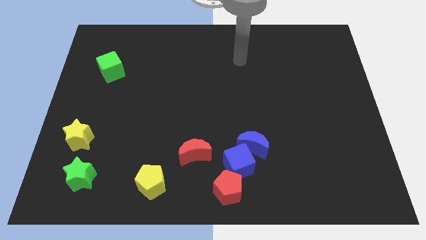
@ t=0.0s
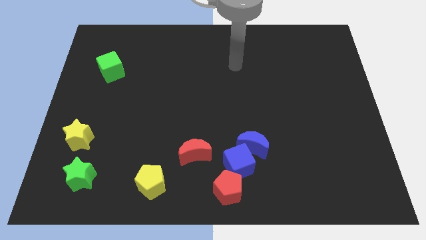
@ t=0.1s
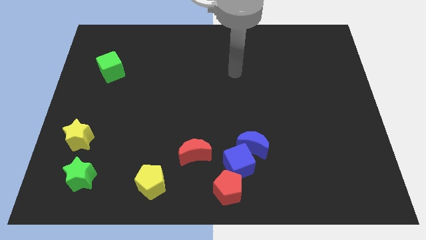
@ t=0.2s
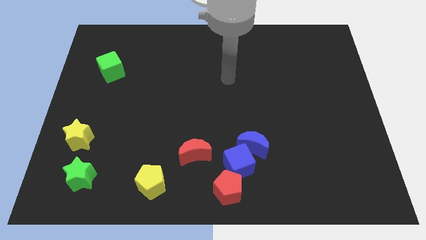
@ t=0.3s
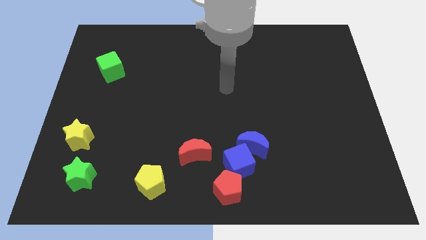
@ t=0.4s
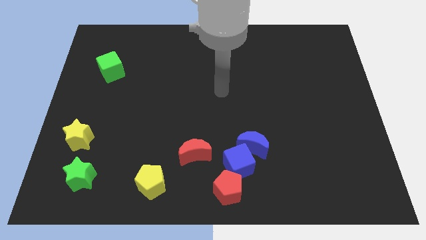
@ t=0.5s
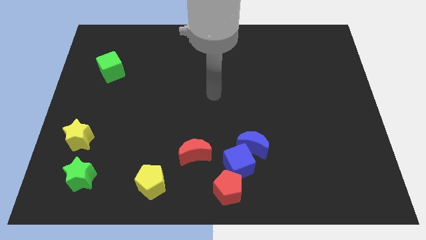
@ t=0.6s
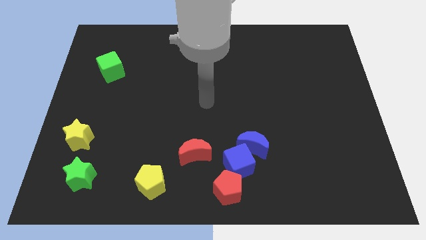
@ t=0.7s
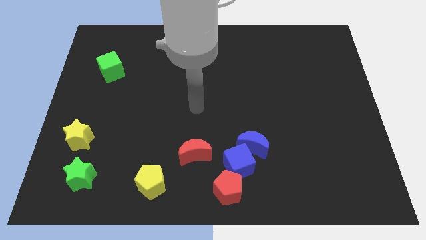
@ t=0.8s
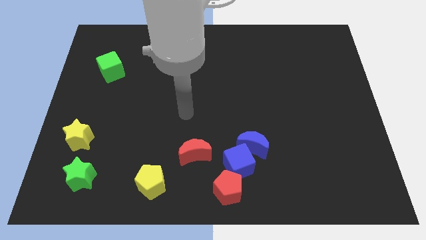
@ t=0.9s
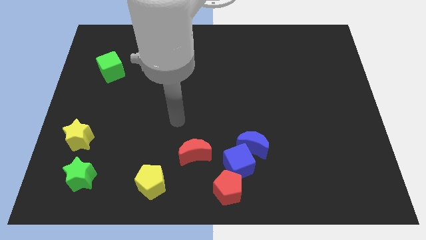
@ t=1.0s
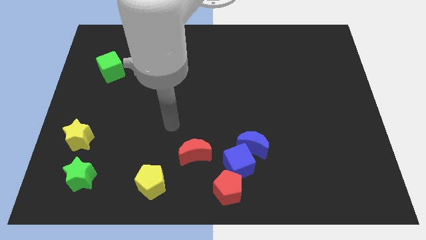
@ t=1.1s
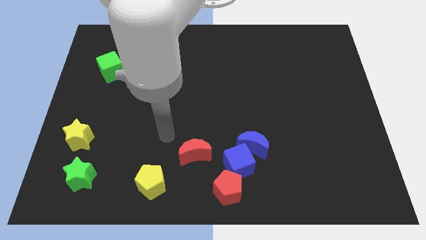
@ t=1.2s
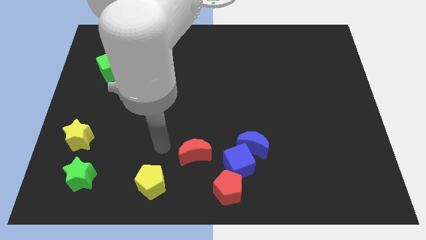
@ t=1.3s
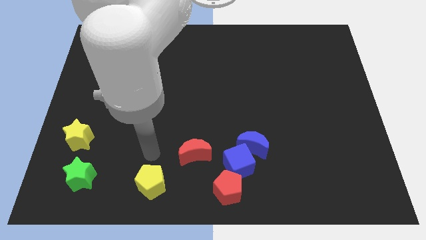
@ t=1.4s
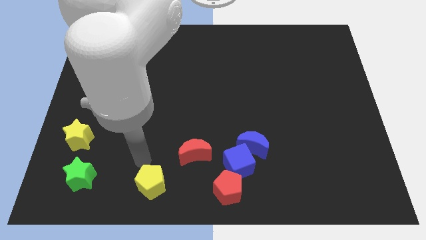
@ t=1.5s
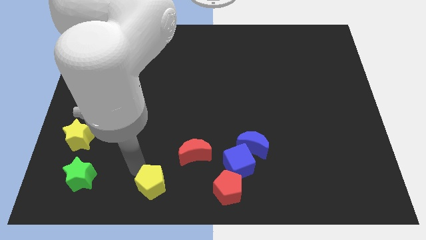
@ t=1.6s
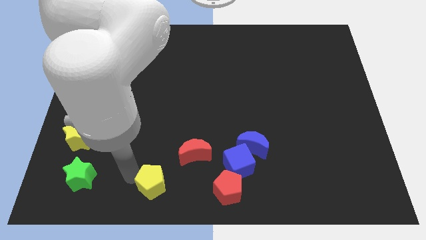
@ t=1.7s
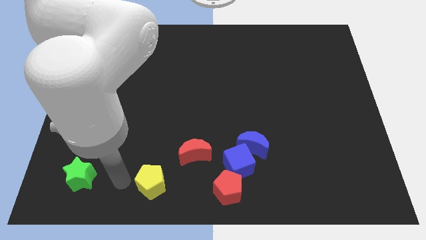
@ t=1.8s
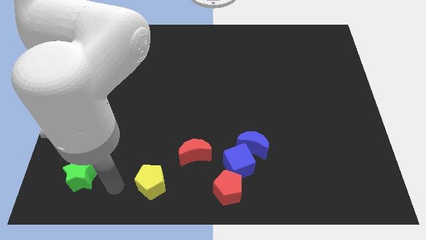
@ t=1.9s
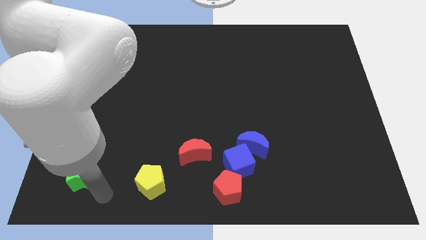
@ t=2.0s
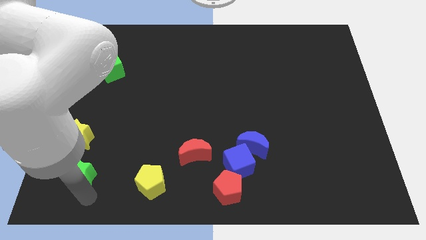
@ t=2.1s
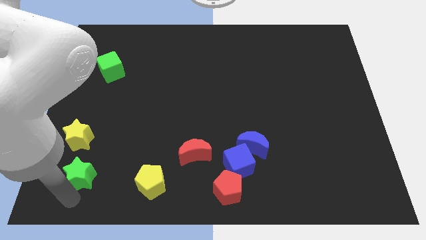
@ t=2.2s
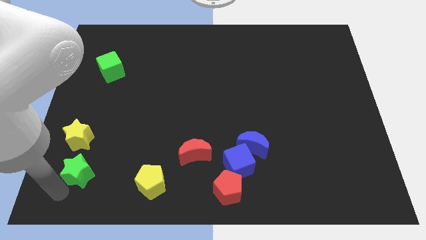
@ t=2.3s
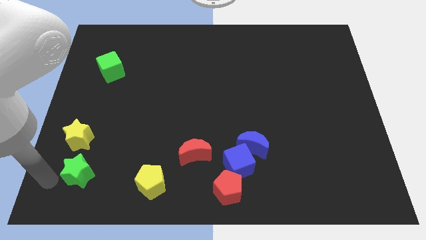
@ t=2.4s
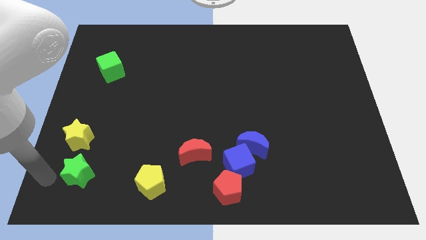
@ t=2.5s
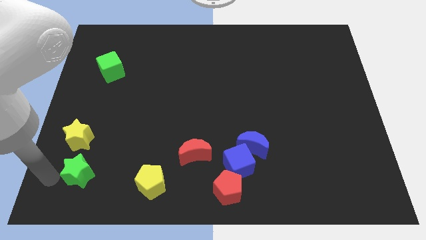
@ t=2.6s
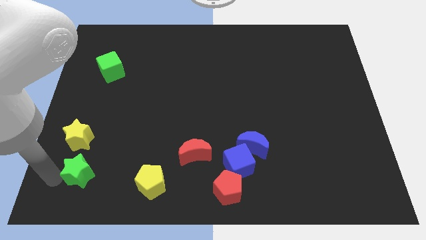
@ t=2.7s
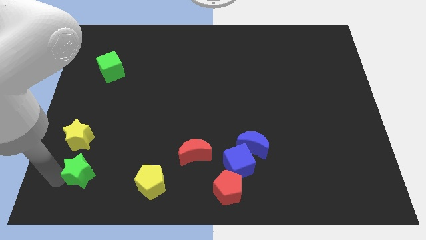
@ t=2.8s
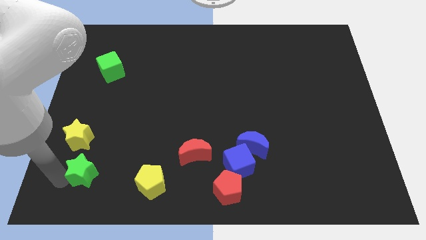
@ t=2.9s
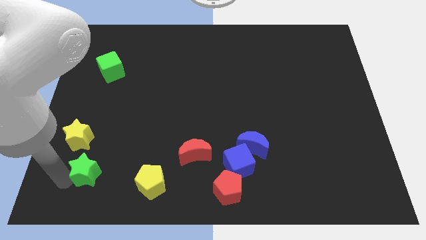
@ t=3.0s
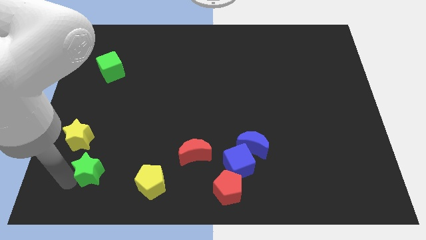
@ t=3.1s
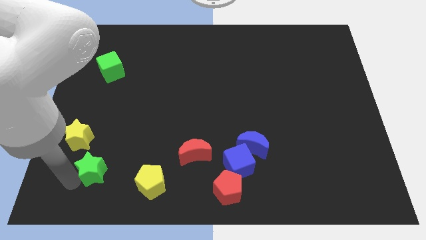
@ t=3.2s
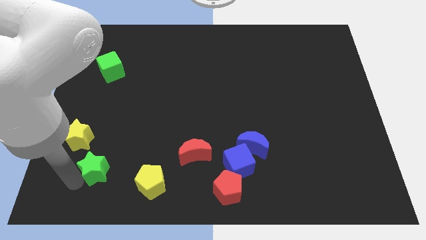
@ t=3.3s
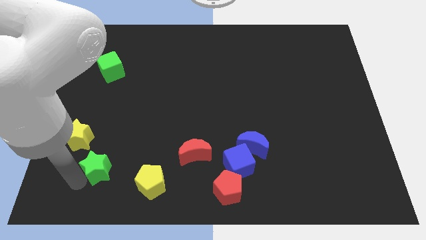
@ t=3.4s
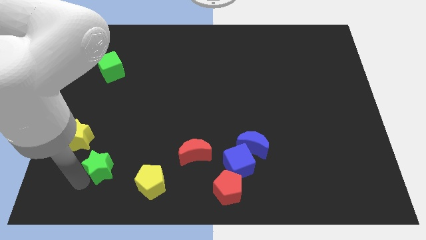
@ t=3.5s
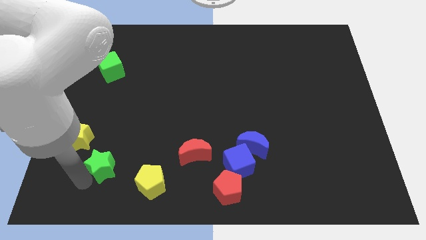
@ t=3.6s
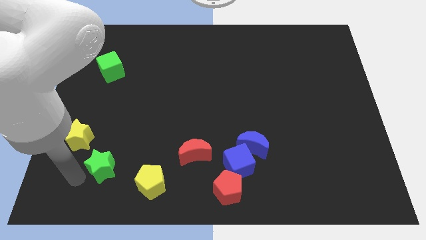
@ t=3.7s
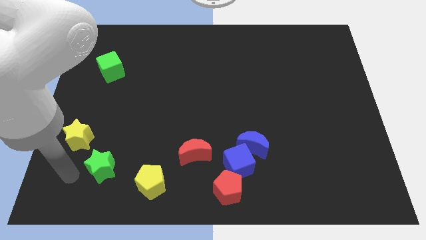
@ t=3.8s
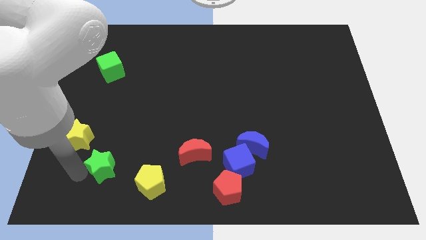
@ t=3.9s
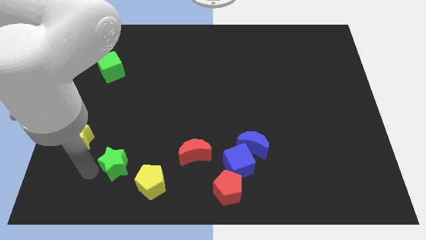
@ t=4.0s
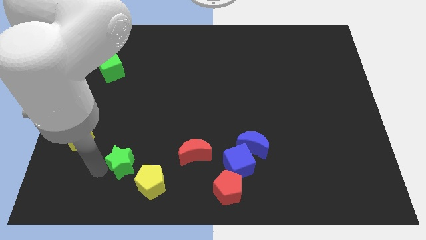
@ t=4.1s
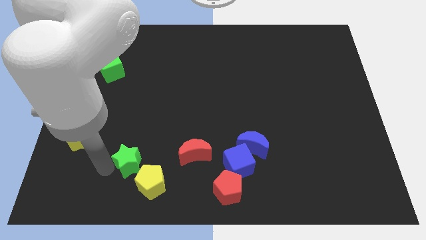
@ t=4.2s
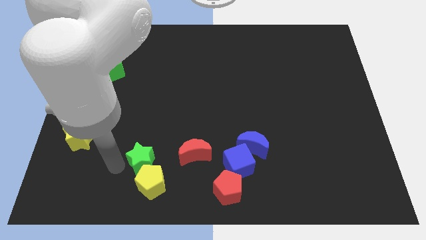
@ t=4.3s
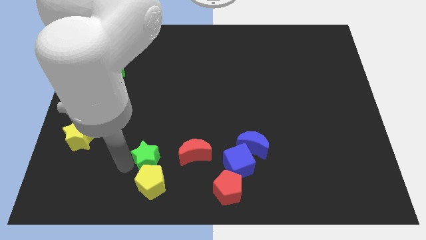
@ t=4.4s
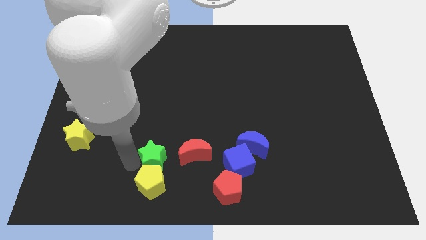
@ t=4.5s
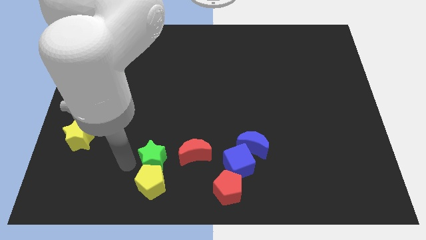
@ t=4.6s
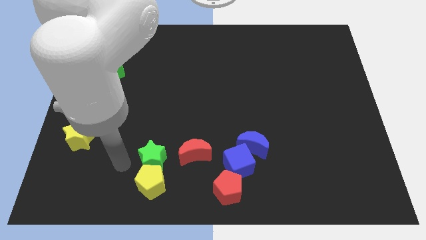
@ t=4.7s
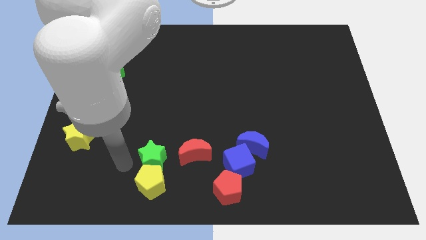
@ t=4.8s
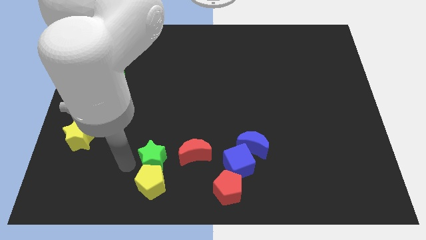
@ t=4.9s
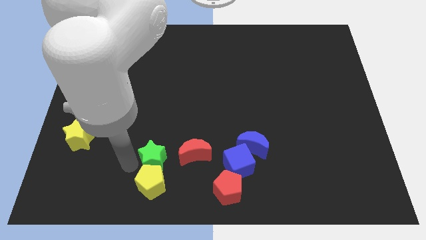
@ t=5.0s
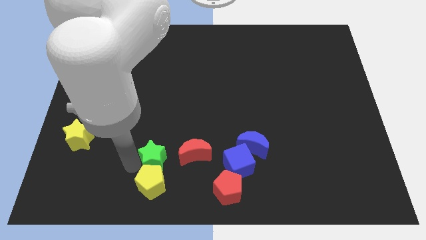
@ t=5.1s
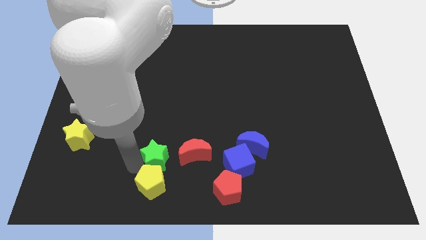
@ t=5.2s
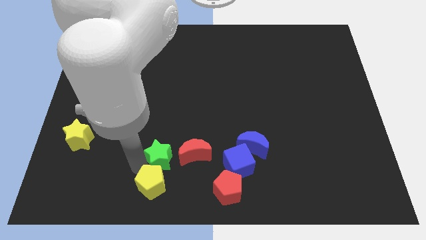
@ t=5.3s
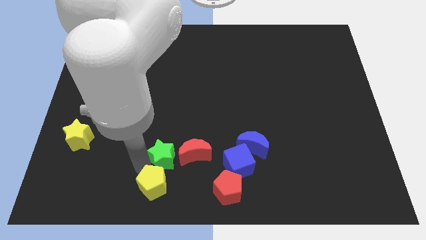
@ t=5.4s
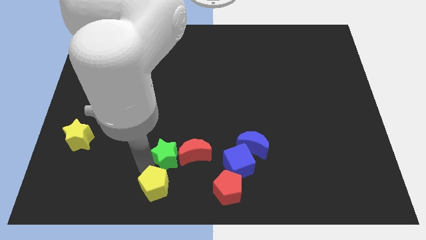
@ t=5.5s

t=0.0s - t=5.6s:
move the green star close to the red moon

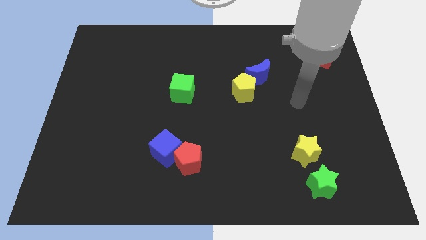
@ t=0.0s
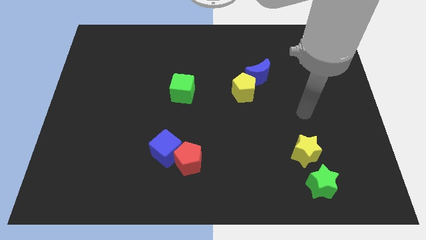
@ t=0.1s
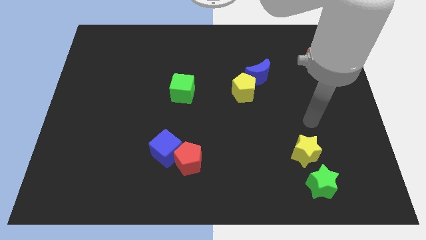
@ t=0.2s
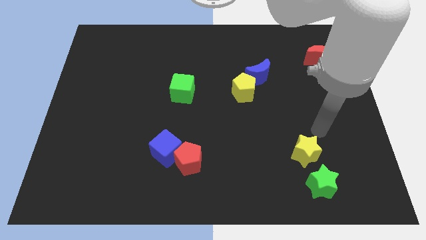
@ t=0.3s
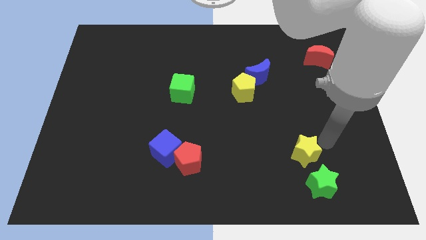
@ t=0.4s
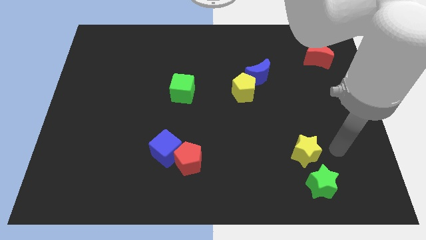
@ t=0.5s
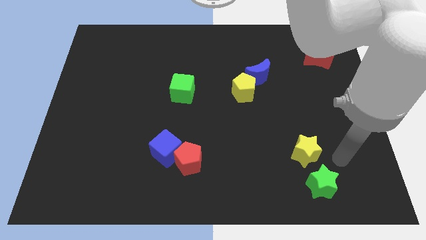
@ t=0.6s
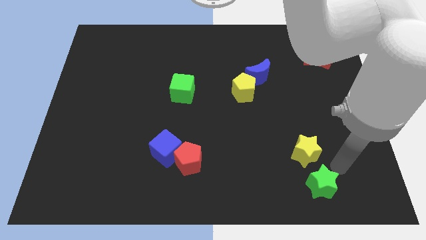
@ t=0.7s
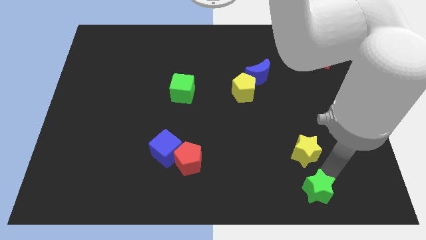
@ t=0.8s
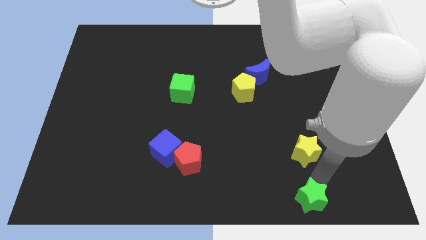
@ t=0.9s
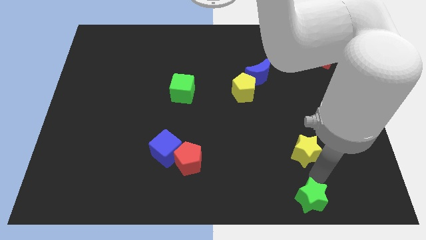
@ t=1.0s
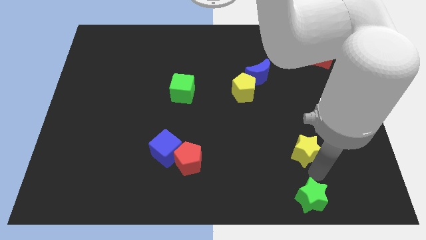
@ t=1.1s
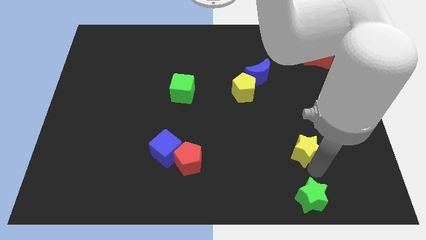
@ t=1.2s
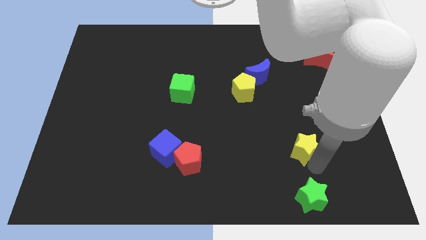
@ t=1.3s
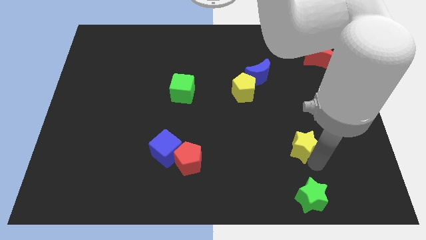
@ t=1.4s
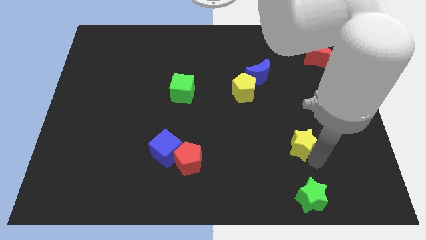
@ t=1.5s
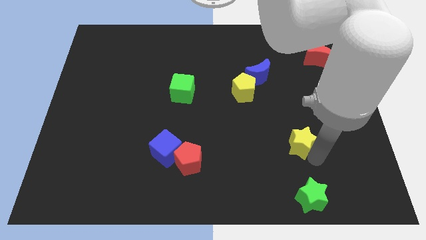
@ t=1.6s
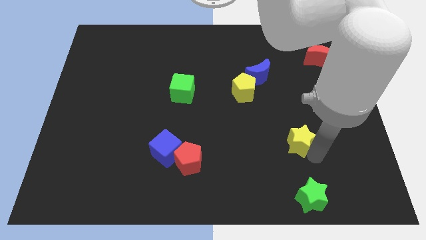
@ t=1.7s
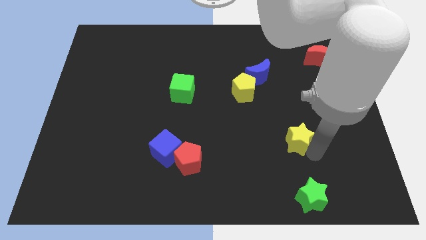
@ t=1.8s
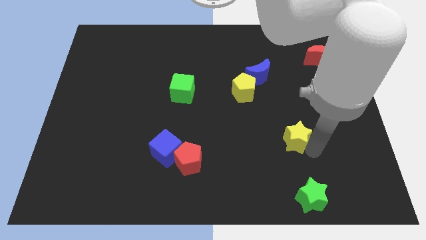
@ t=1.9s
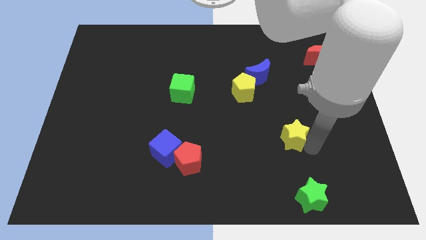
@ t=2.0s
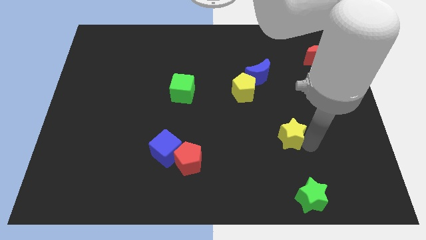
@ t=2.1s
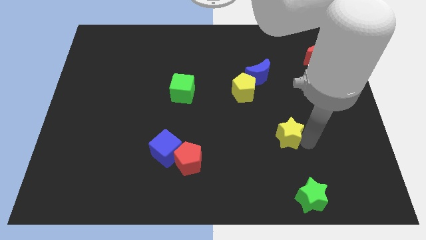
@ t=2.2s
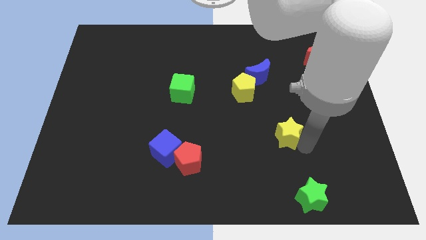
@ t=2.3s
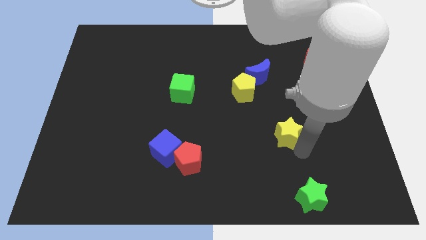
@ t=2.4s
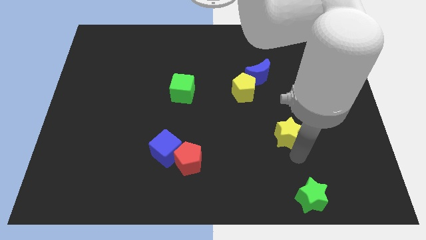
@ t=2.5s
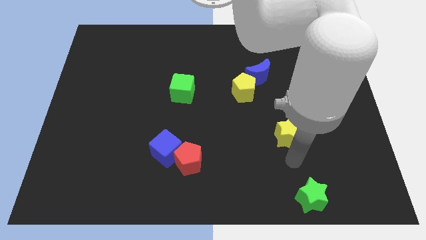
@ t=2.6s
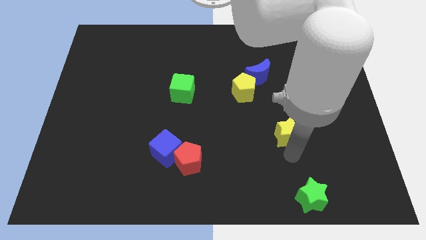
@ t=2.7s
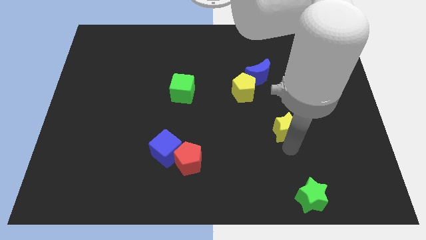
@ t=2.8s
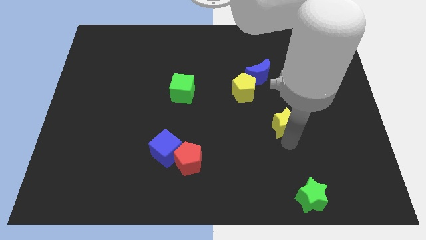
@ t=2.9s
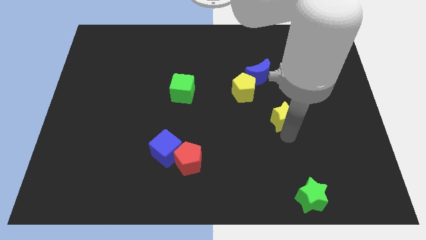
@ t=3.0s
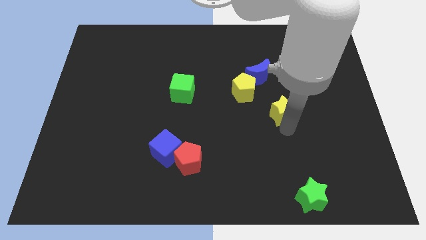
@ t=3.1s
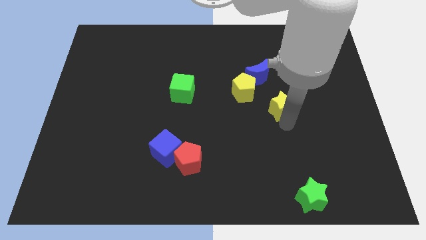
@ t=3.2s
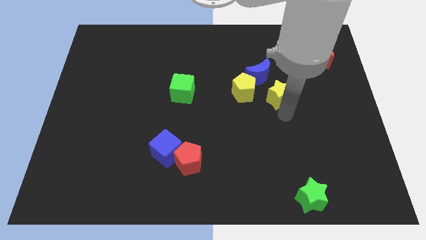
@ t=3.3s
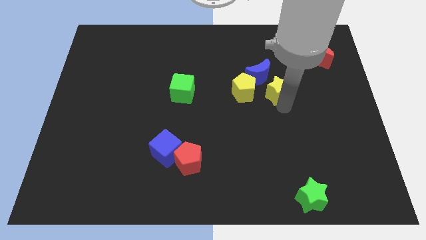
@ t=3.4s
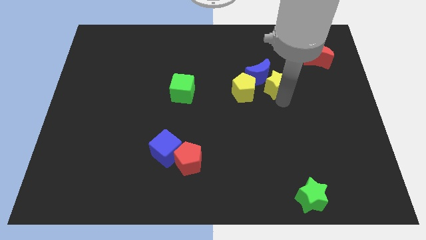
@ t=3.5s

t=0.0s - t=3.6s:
slide the yellow star to the blue moon
